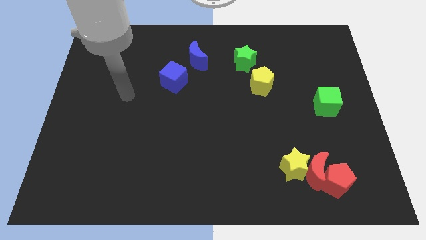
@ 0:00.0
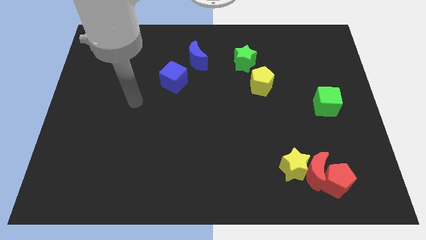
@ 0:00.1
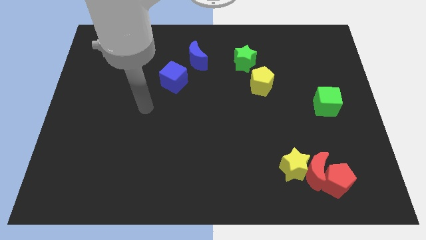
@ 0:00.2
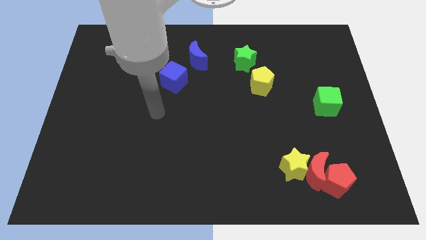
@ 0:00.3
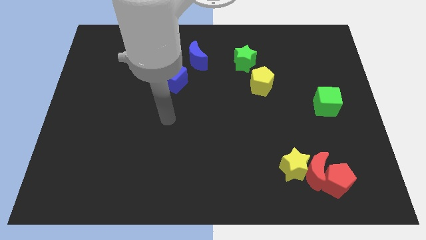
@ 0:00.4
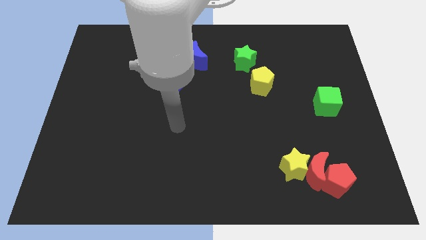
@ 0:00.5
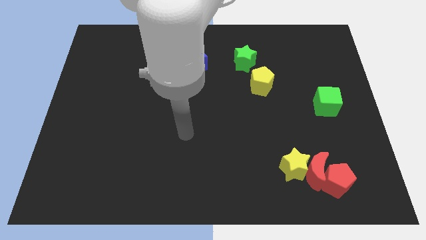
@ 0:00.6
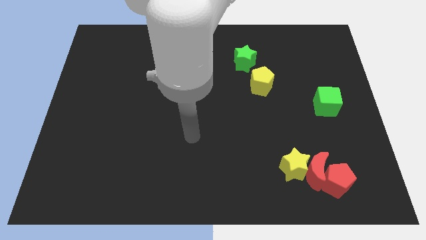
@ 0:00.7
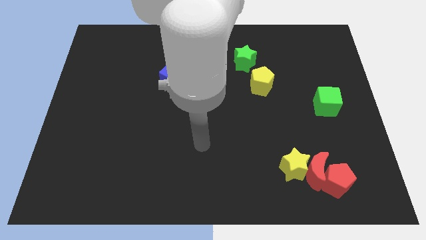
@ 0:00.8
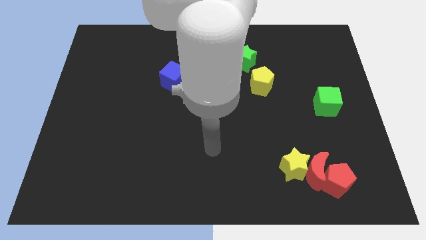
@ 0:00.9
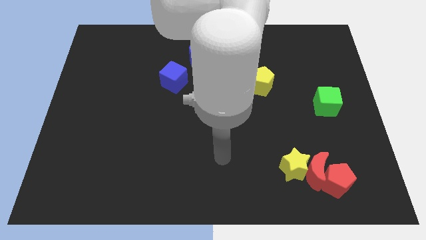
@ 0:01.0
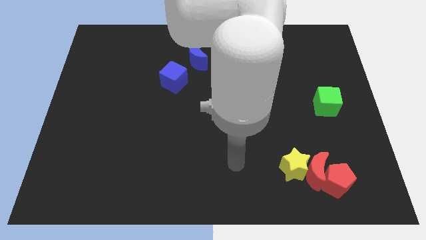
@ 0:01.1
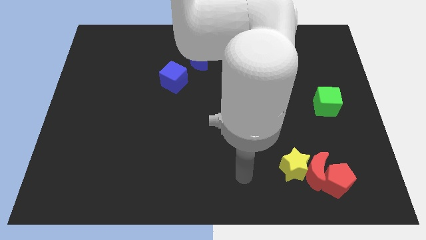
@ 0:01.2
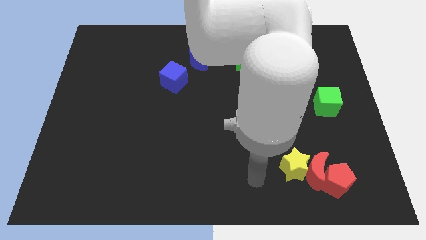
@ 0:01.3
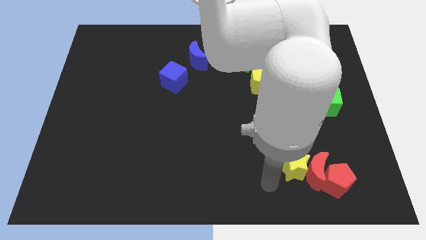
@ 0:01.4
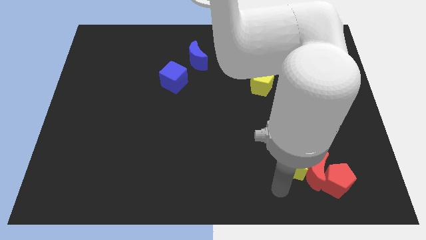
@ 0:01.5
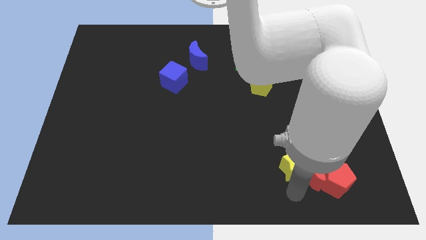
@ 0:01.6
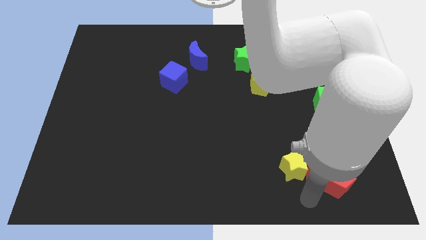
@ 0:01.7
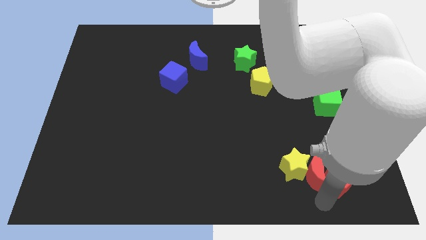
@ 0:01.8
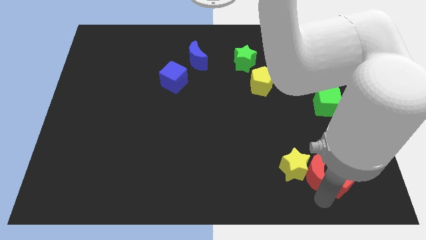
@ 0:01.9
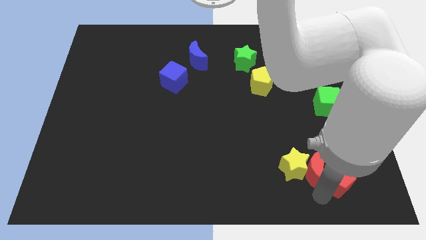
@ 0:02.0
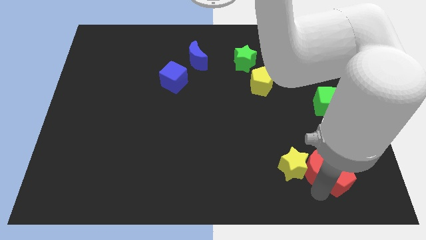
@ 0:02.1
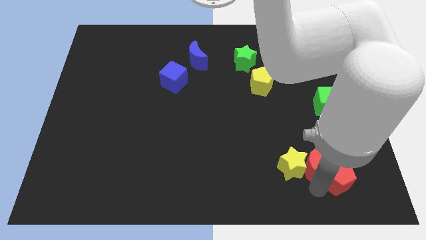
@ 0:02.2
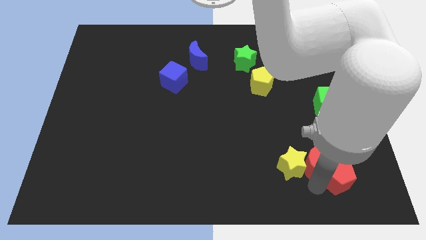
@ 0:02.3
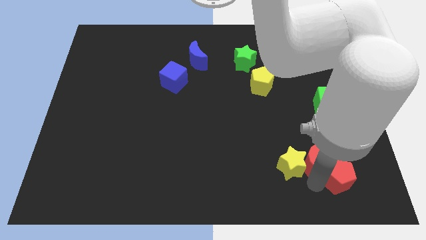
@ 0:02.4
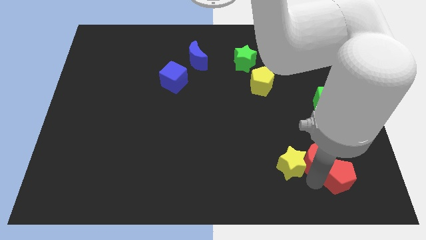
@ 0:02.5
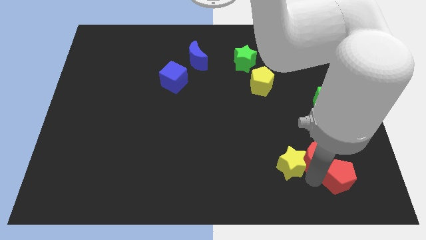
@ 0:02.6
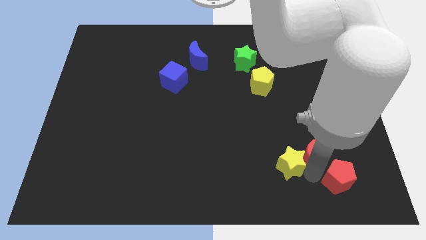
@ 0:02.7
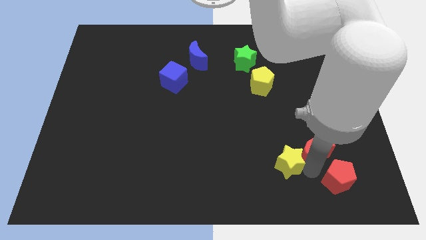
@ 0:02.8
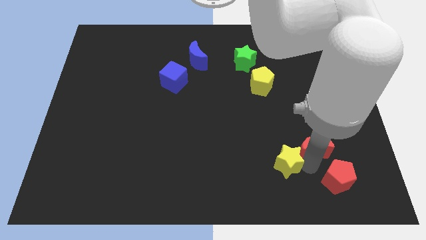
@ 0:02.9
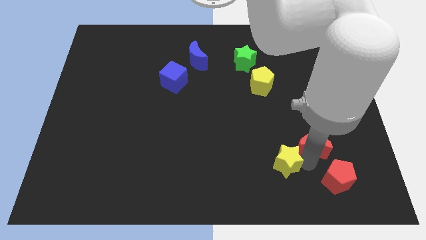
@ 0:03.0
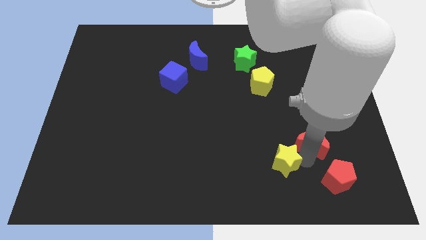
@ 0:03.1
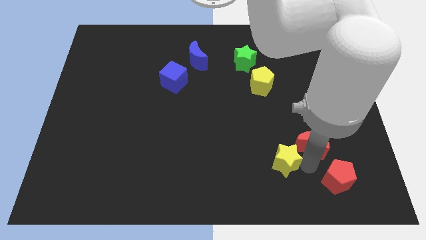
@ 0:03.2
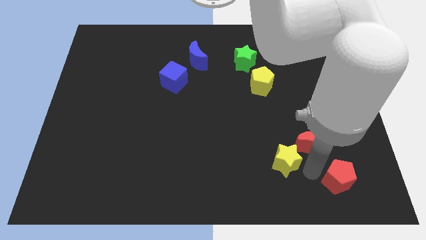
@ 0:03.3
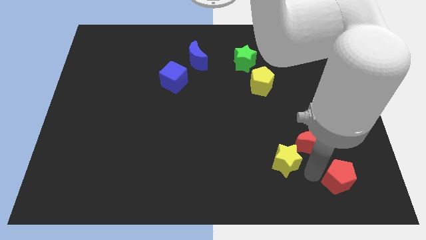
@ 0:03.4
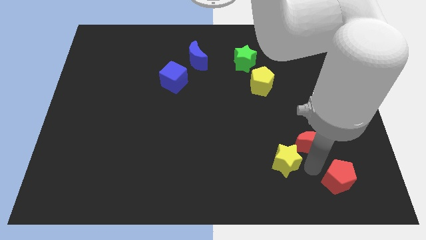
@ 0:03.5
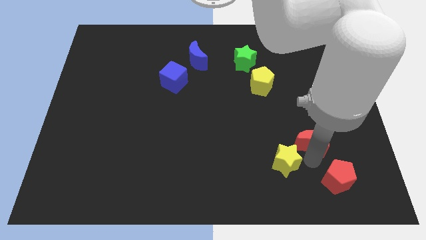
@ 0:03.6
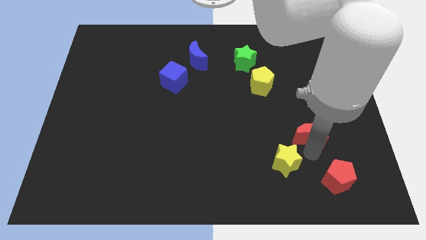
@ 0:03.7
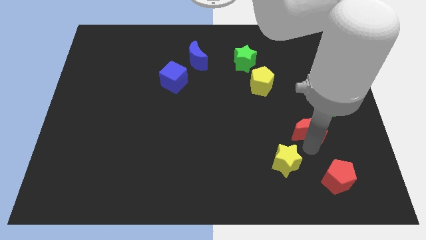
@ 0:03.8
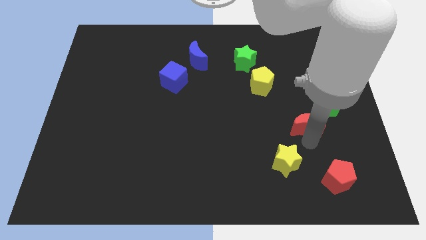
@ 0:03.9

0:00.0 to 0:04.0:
separate the red moon from the yellow star and red pentagon

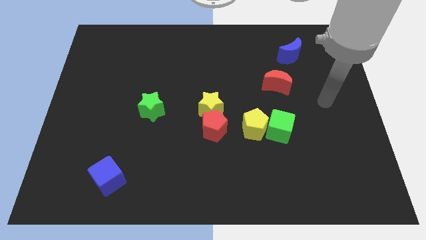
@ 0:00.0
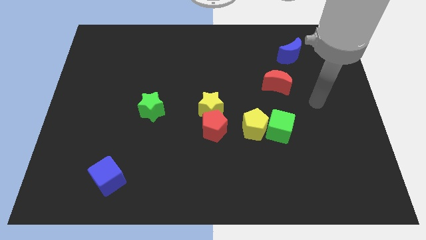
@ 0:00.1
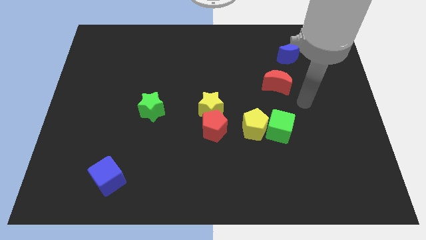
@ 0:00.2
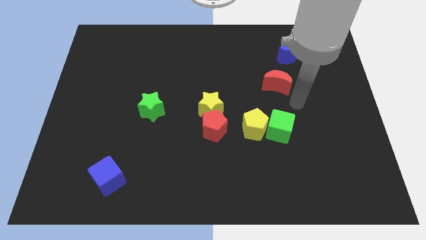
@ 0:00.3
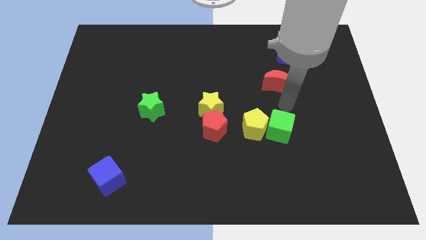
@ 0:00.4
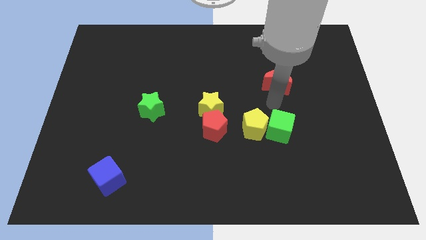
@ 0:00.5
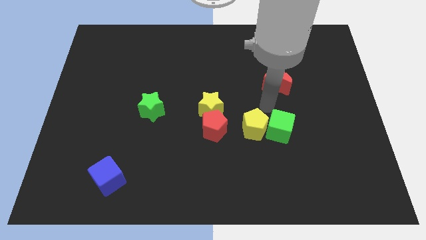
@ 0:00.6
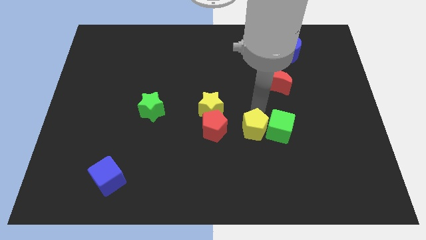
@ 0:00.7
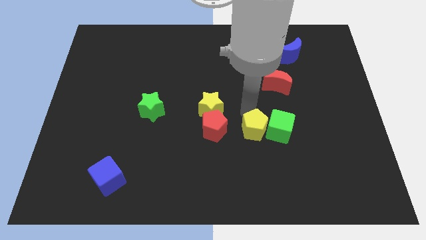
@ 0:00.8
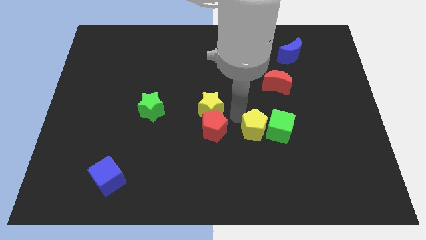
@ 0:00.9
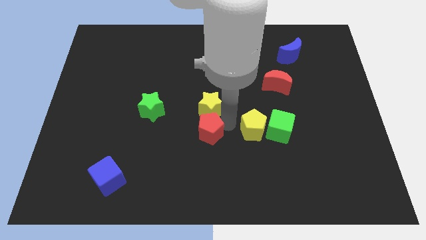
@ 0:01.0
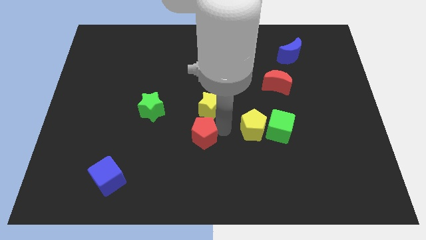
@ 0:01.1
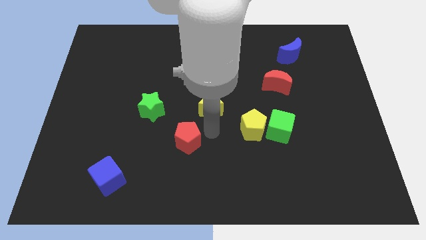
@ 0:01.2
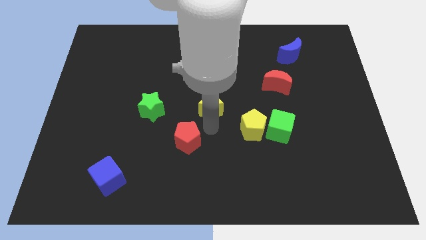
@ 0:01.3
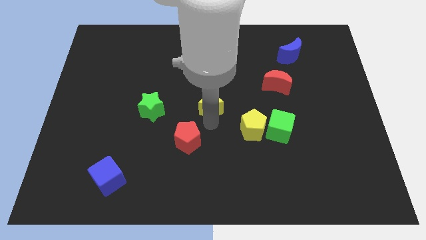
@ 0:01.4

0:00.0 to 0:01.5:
pull the yellow star apart from the red pentagon

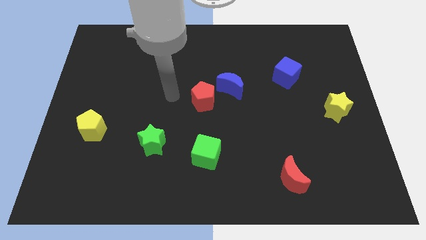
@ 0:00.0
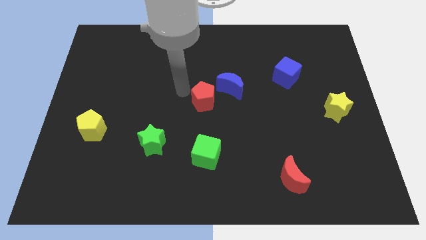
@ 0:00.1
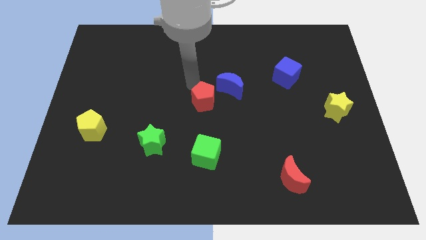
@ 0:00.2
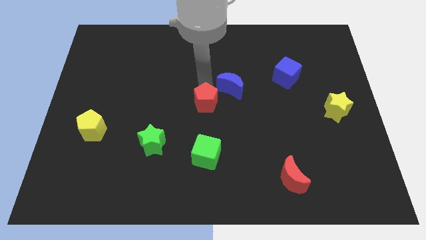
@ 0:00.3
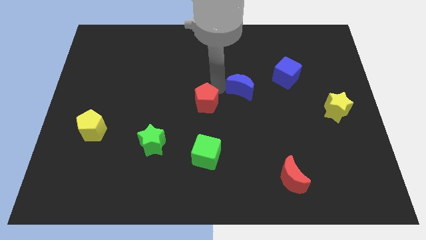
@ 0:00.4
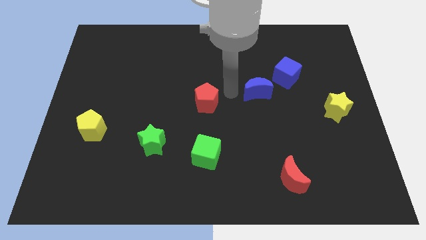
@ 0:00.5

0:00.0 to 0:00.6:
pull the red pentagon apart from the blue moon

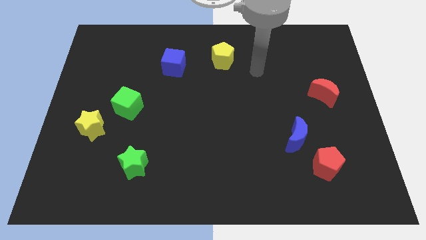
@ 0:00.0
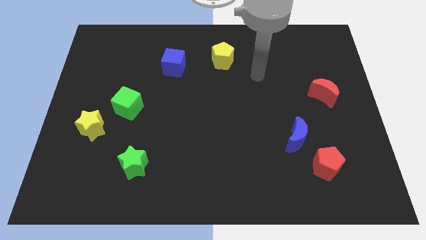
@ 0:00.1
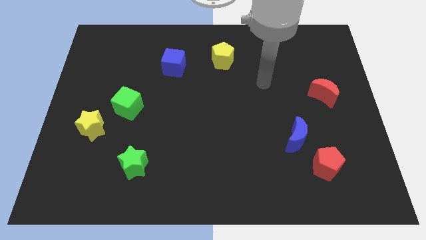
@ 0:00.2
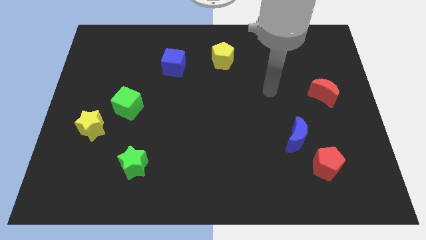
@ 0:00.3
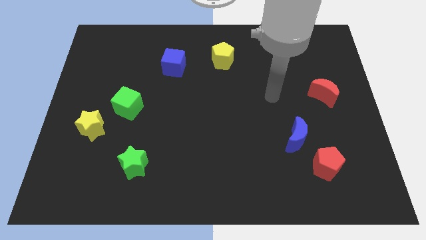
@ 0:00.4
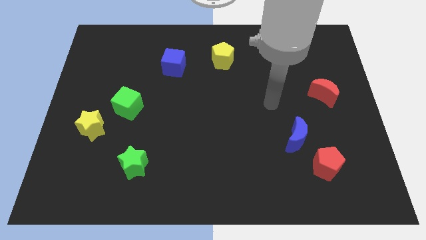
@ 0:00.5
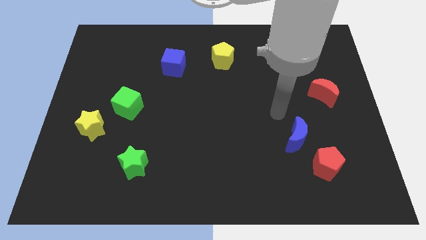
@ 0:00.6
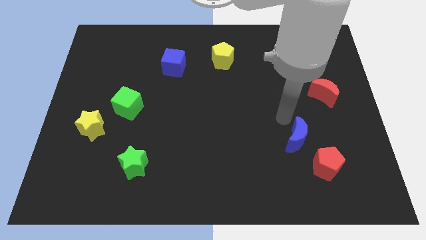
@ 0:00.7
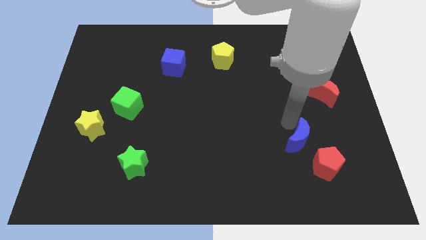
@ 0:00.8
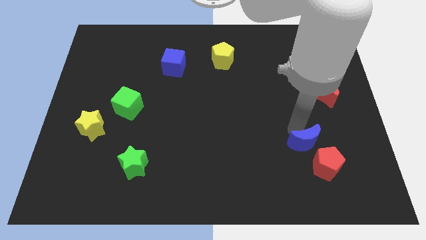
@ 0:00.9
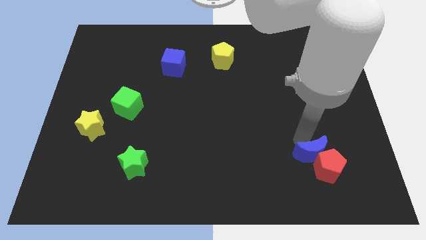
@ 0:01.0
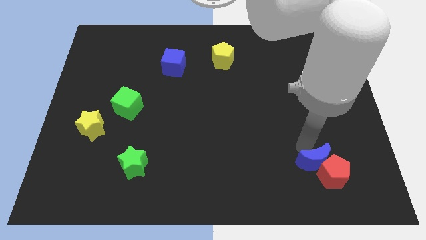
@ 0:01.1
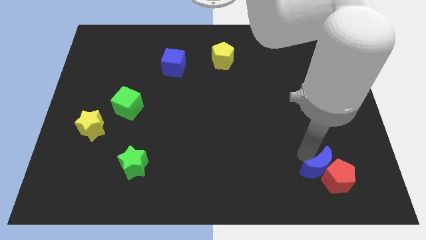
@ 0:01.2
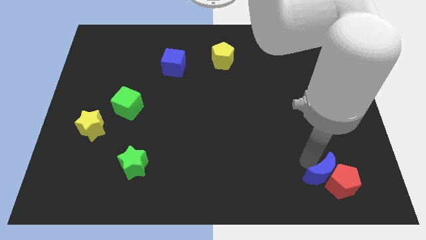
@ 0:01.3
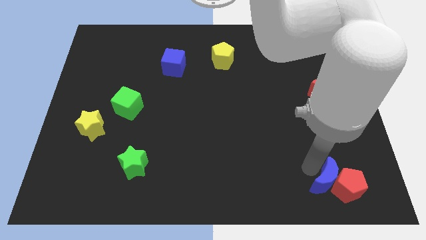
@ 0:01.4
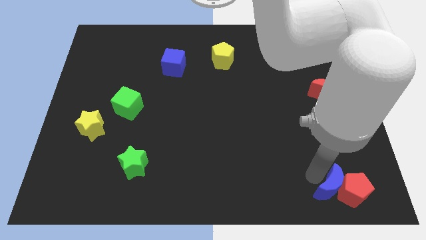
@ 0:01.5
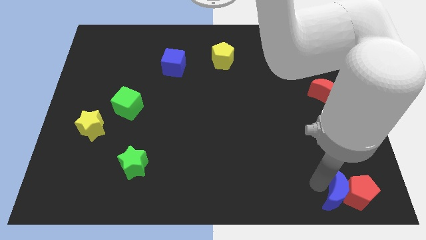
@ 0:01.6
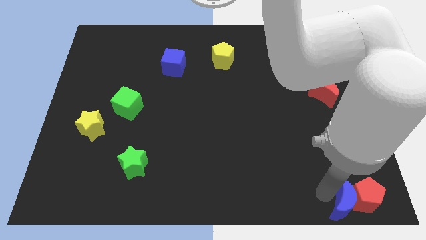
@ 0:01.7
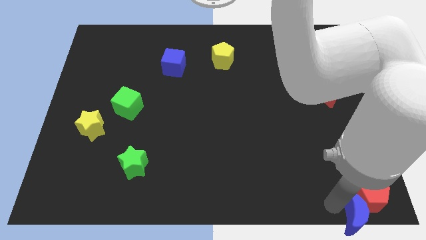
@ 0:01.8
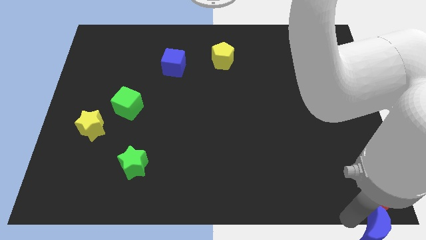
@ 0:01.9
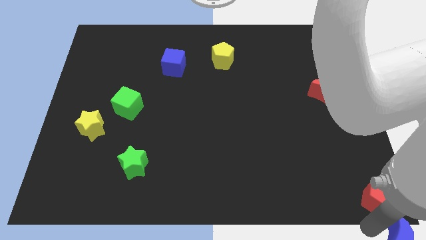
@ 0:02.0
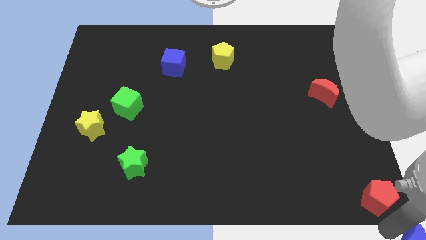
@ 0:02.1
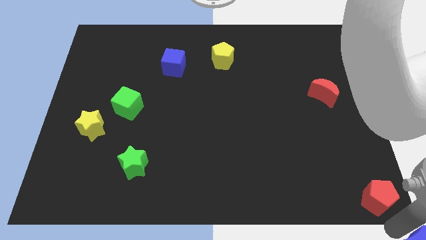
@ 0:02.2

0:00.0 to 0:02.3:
separate the red pentagon from the blue moon

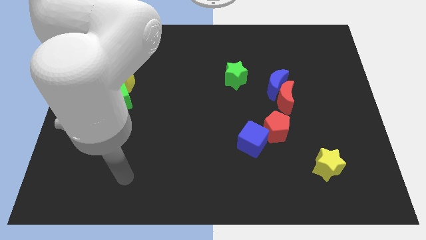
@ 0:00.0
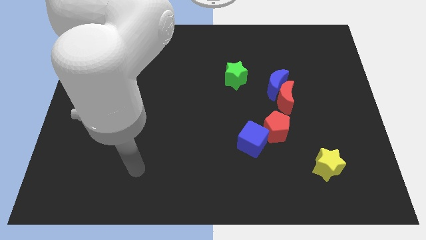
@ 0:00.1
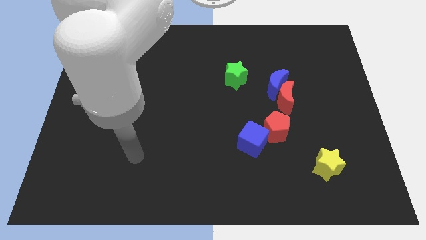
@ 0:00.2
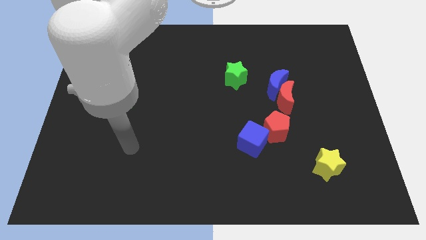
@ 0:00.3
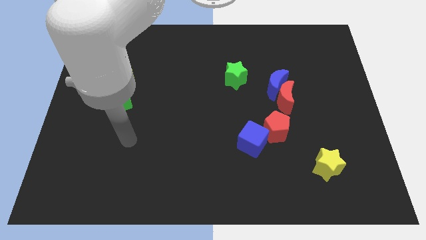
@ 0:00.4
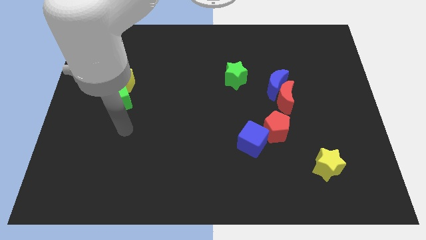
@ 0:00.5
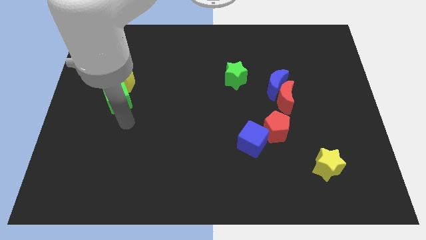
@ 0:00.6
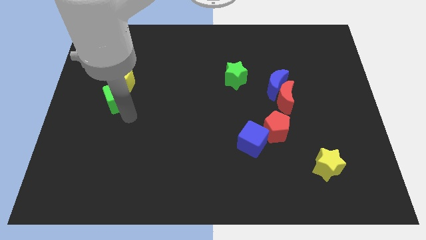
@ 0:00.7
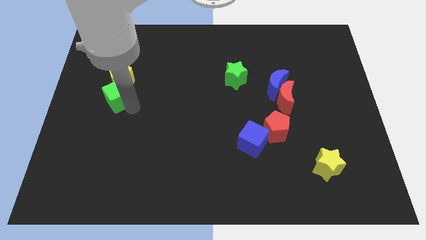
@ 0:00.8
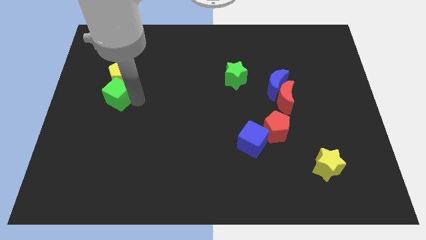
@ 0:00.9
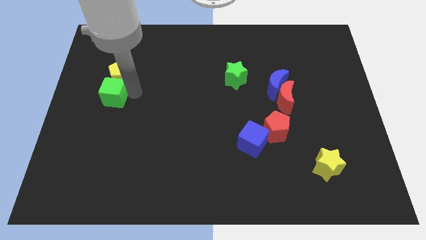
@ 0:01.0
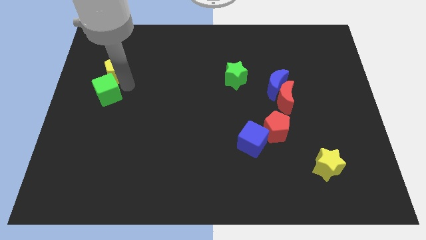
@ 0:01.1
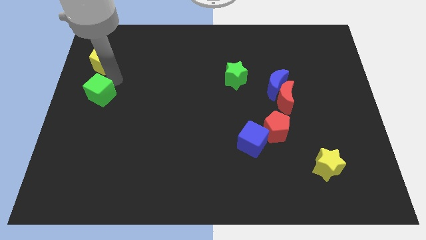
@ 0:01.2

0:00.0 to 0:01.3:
pull the green cube apart from the yellow pentagon
